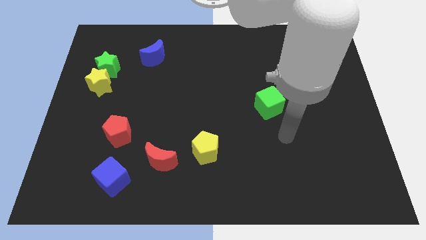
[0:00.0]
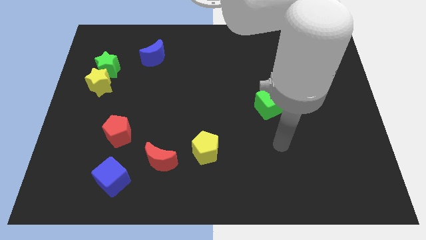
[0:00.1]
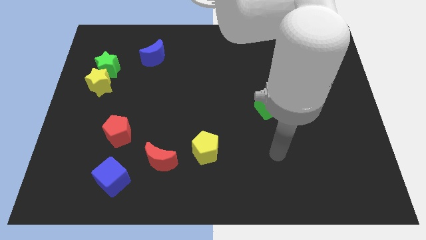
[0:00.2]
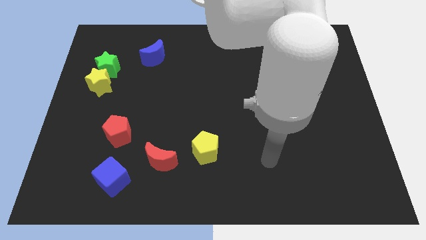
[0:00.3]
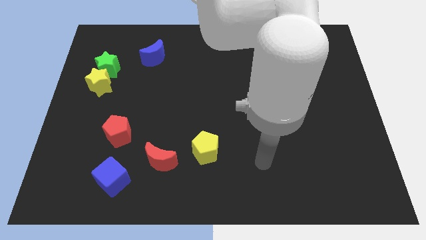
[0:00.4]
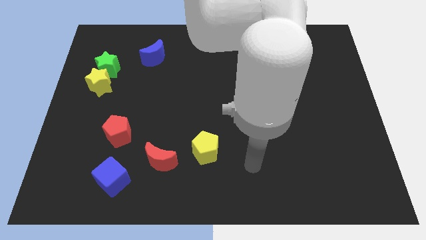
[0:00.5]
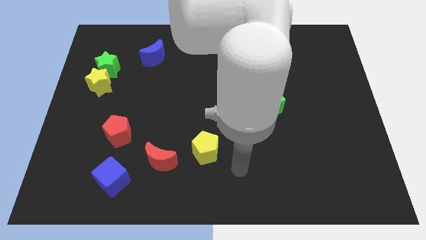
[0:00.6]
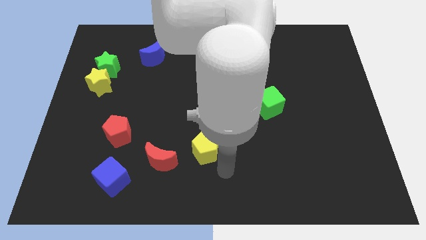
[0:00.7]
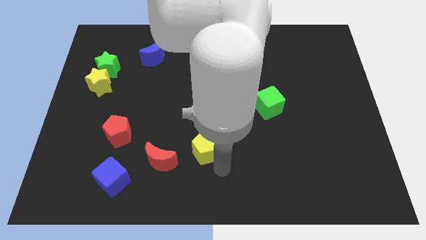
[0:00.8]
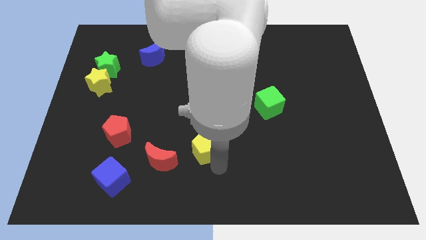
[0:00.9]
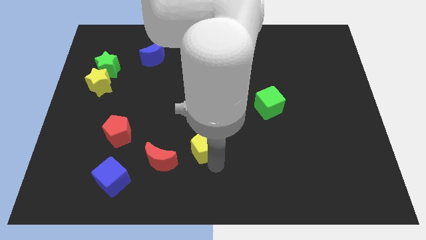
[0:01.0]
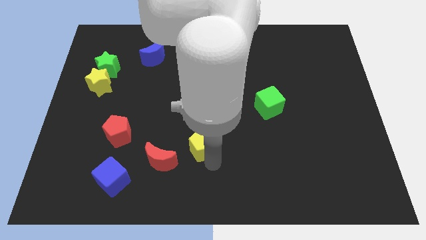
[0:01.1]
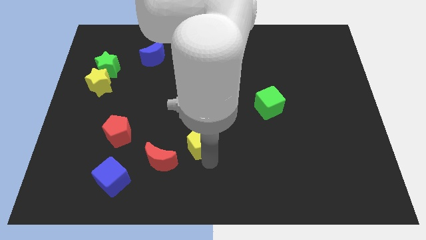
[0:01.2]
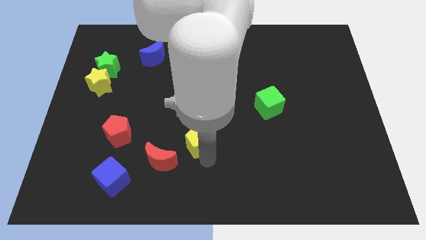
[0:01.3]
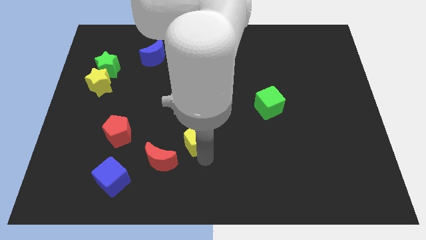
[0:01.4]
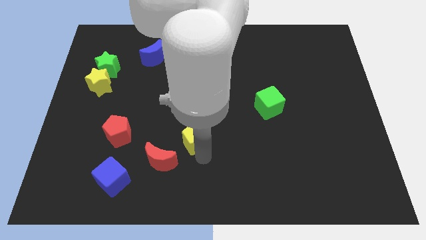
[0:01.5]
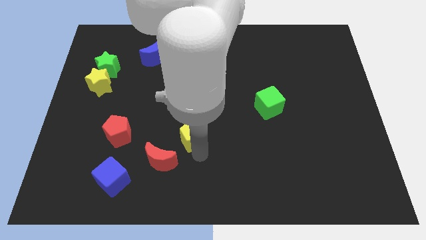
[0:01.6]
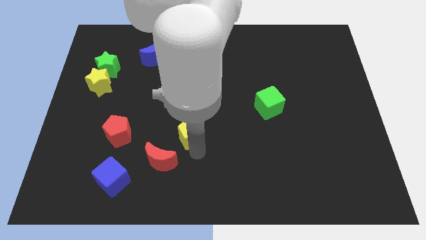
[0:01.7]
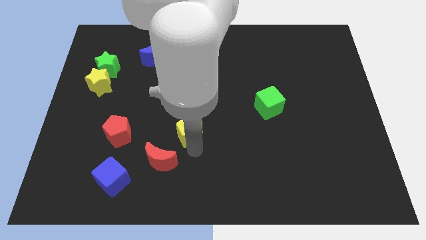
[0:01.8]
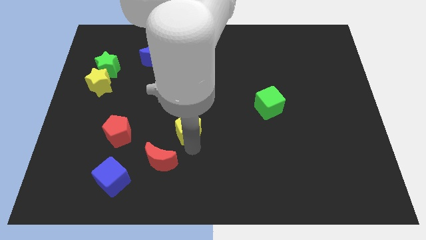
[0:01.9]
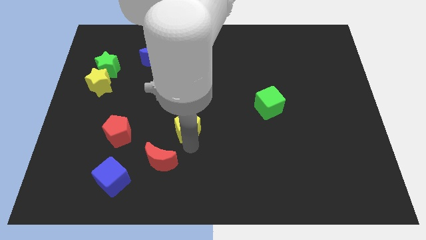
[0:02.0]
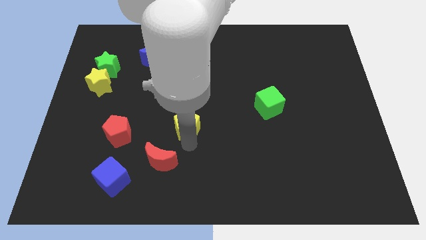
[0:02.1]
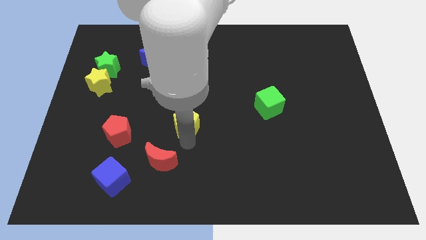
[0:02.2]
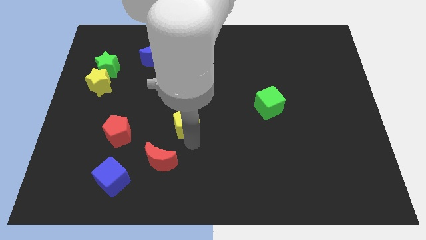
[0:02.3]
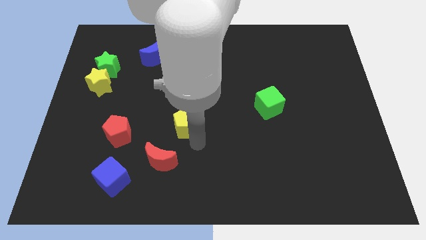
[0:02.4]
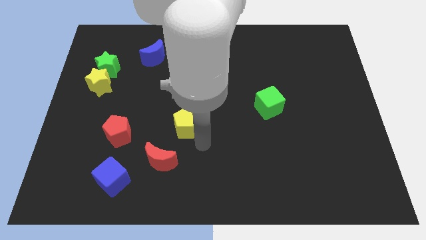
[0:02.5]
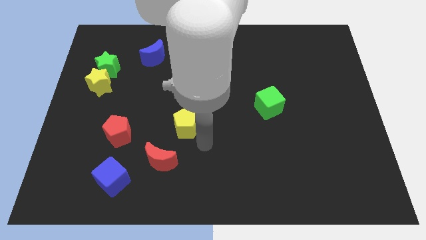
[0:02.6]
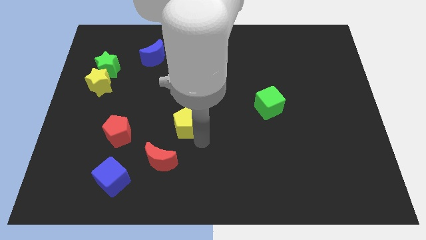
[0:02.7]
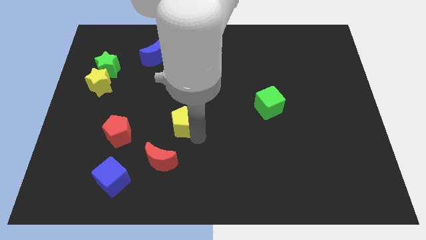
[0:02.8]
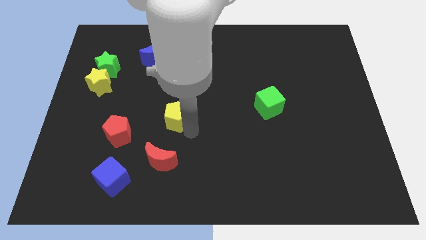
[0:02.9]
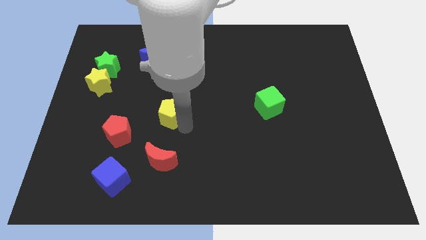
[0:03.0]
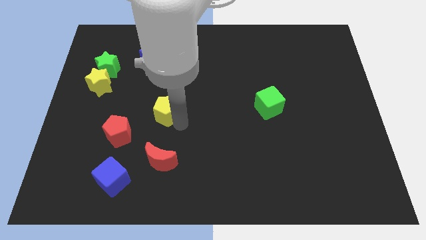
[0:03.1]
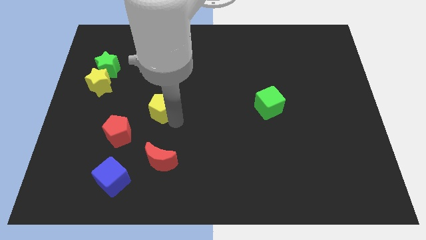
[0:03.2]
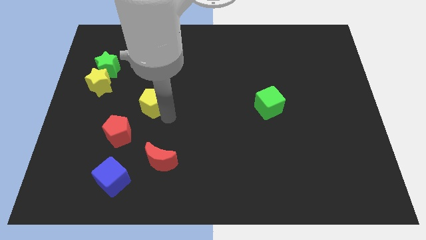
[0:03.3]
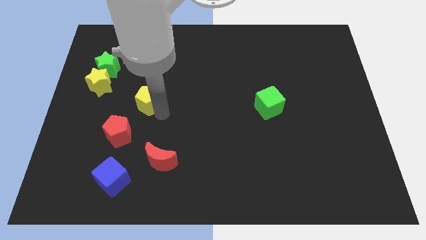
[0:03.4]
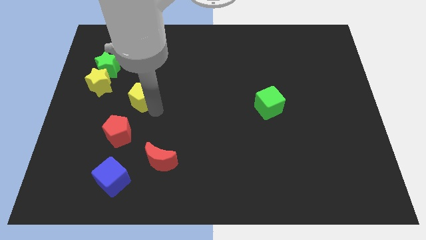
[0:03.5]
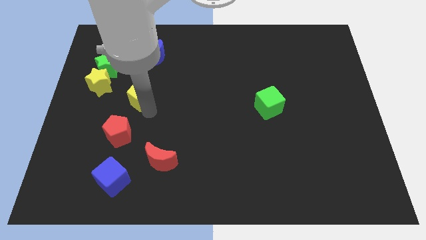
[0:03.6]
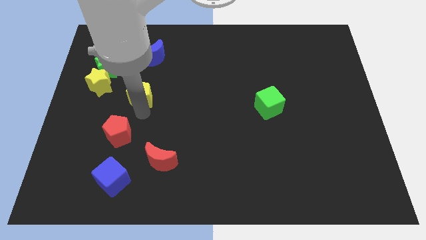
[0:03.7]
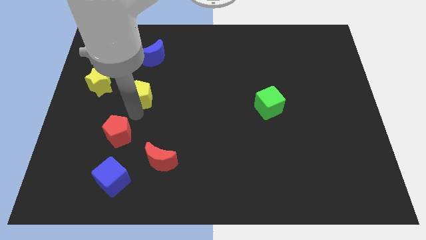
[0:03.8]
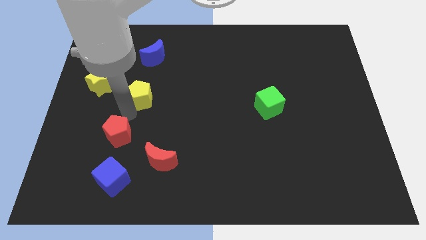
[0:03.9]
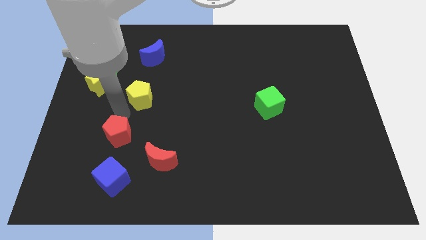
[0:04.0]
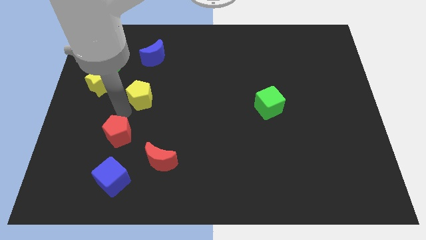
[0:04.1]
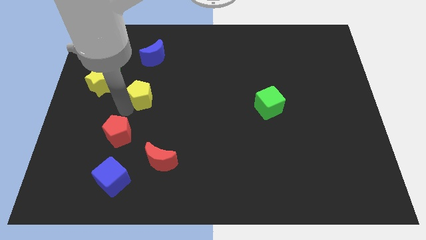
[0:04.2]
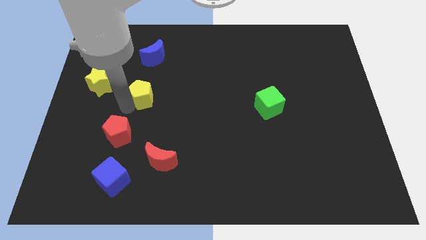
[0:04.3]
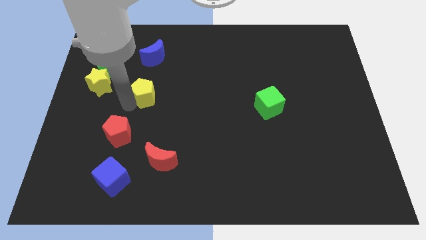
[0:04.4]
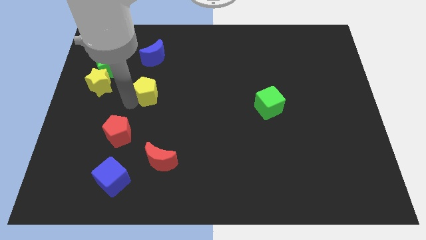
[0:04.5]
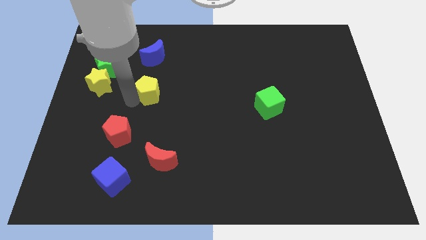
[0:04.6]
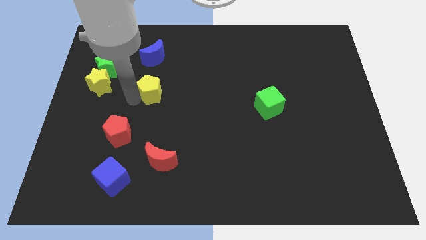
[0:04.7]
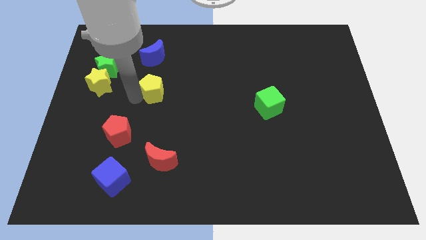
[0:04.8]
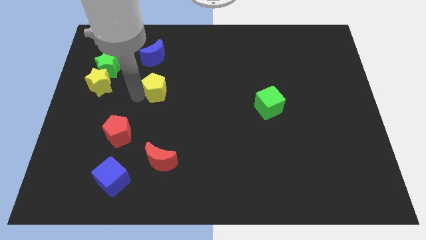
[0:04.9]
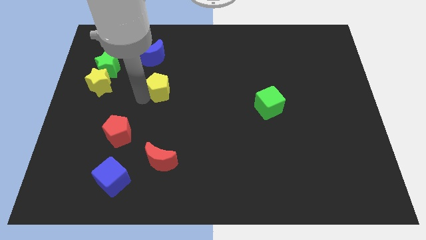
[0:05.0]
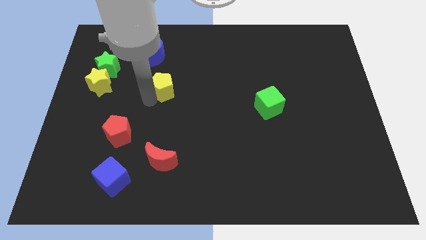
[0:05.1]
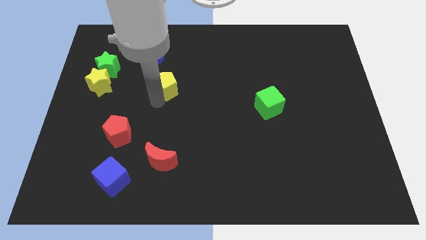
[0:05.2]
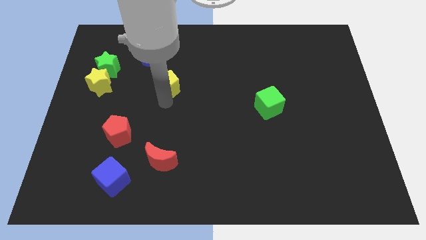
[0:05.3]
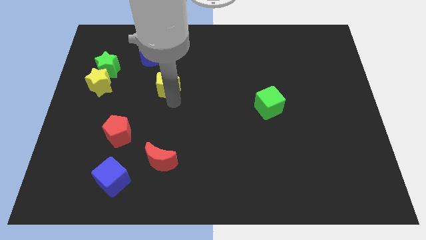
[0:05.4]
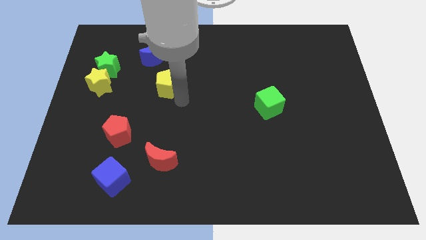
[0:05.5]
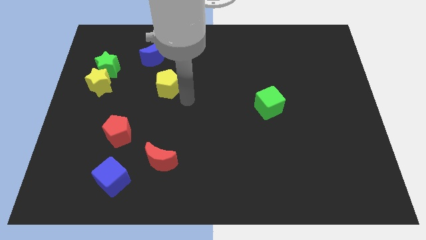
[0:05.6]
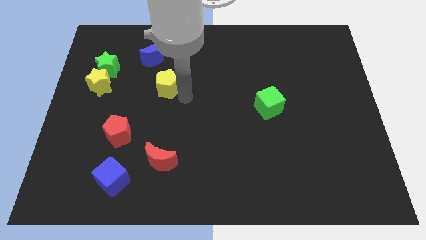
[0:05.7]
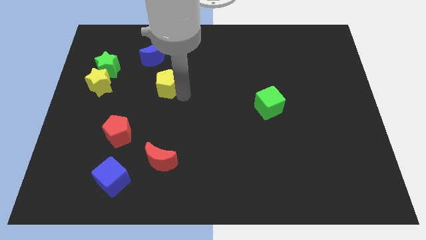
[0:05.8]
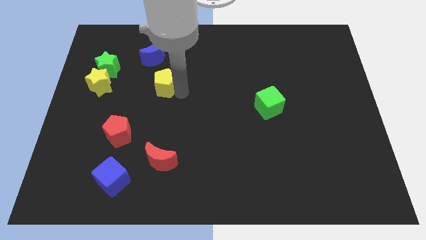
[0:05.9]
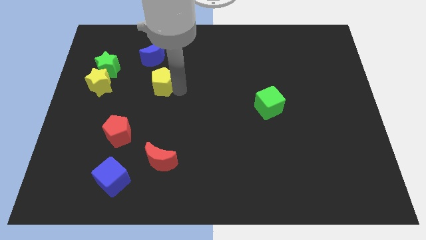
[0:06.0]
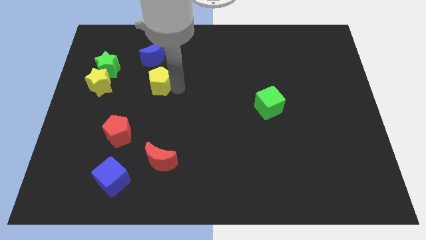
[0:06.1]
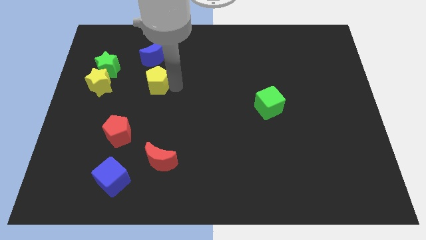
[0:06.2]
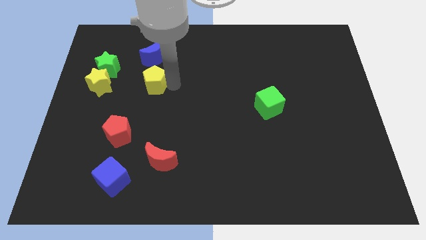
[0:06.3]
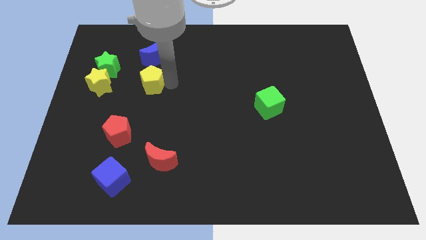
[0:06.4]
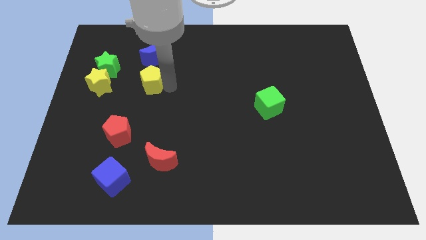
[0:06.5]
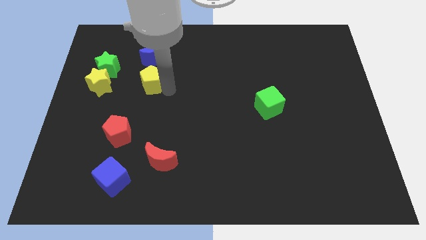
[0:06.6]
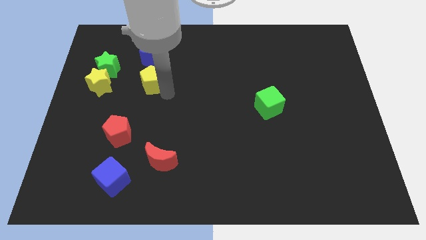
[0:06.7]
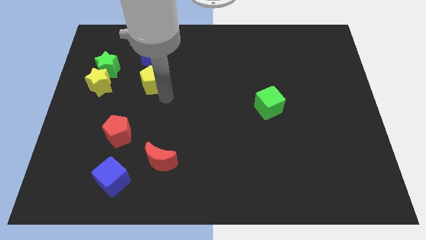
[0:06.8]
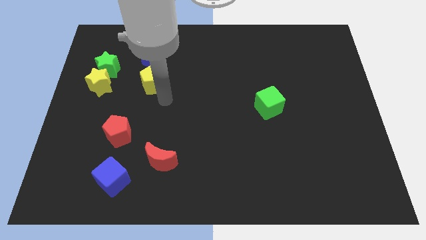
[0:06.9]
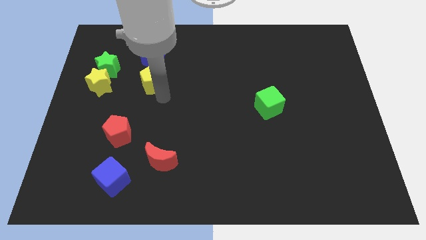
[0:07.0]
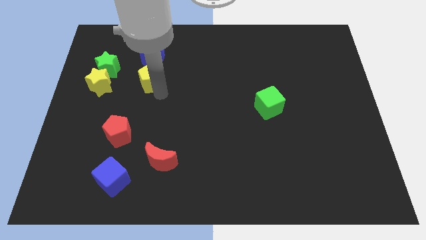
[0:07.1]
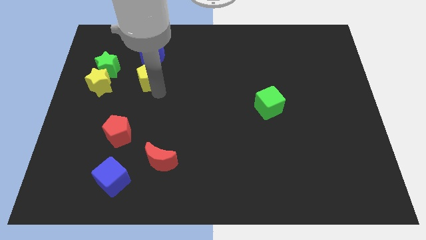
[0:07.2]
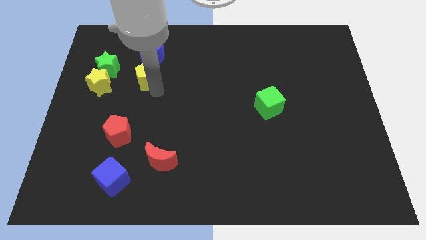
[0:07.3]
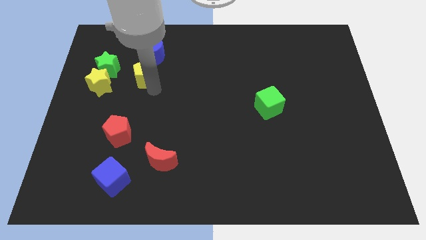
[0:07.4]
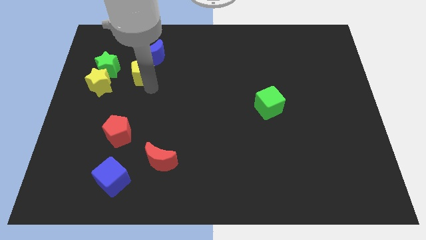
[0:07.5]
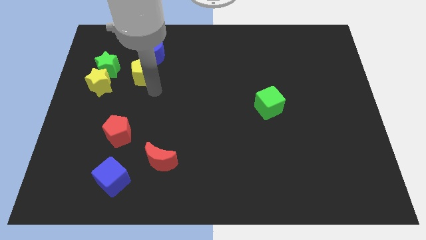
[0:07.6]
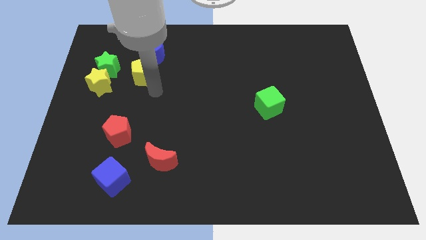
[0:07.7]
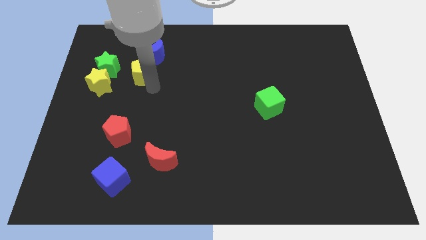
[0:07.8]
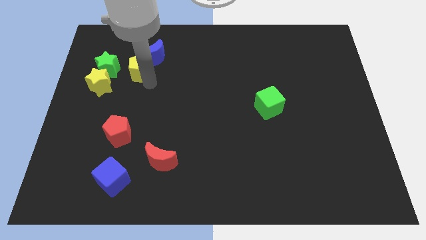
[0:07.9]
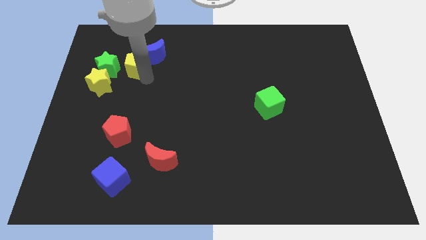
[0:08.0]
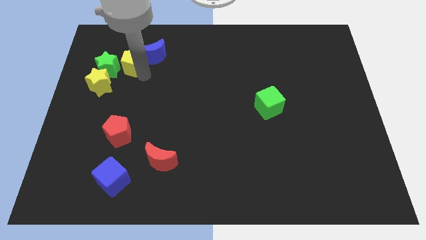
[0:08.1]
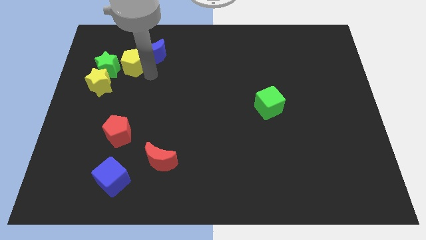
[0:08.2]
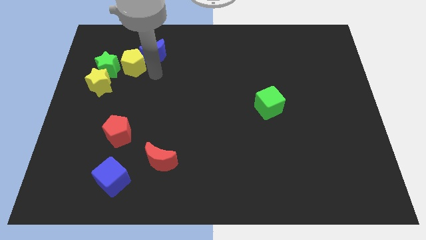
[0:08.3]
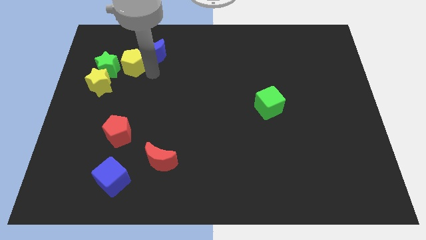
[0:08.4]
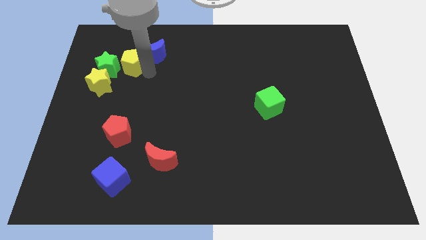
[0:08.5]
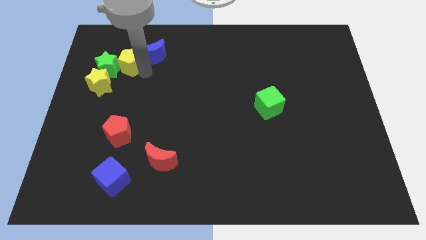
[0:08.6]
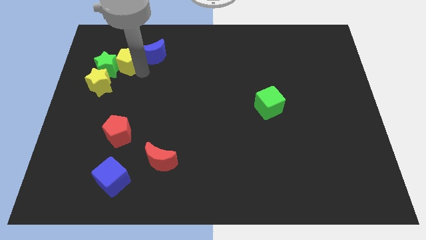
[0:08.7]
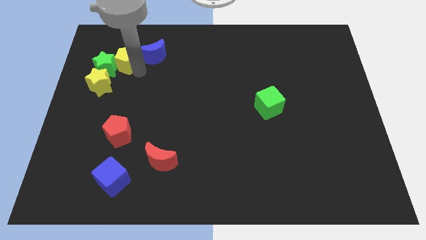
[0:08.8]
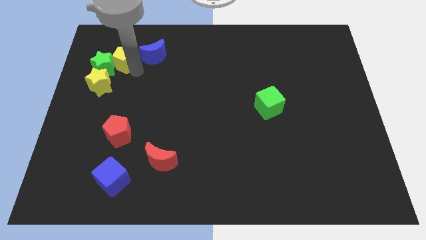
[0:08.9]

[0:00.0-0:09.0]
put the yellow pentagon to the top side of the yellow star
